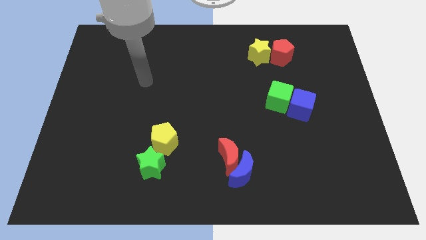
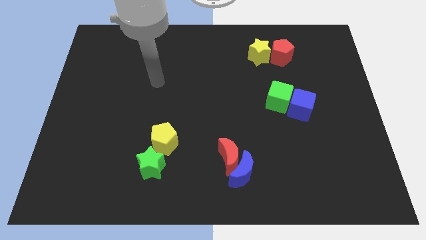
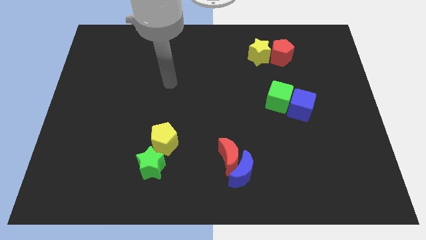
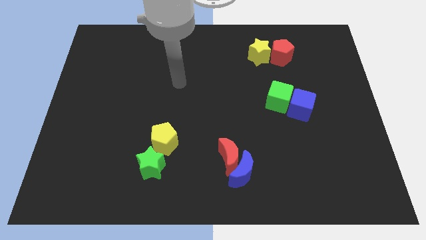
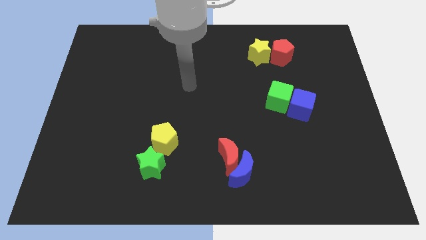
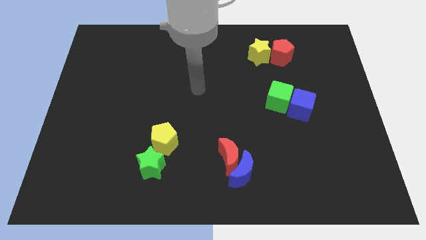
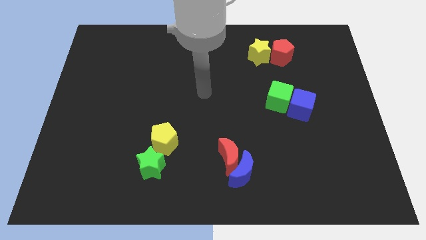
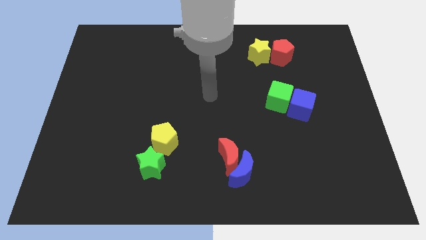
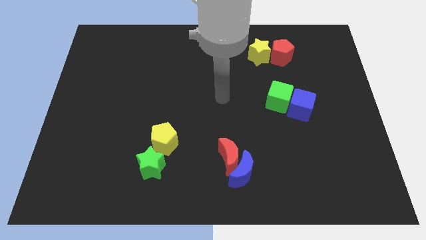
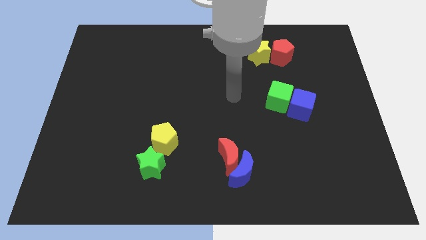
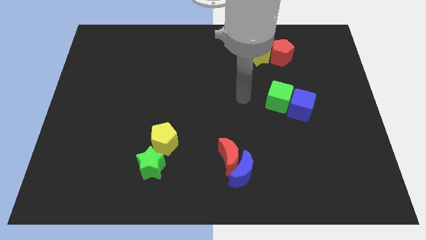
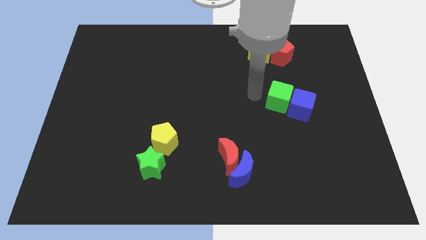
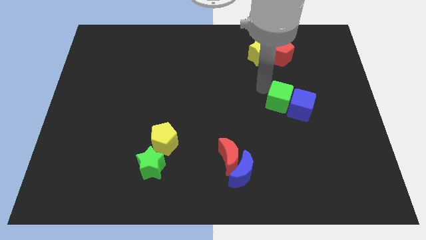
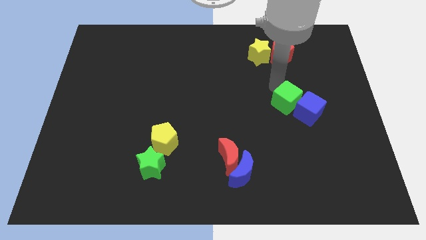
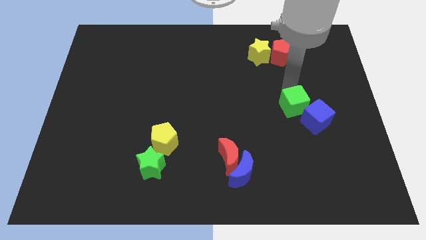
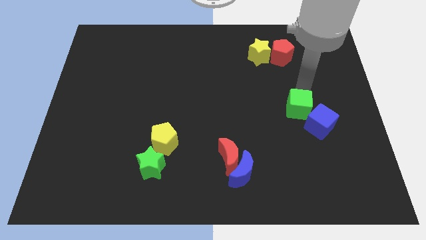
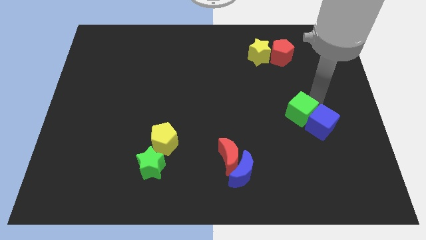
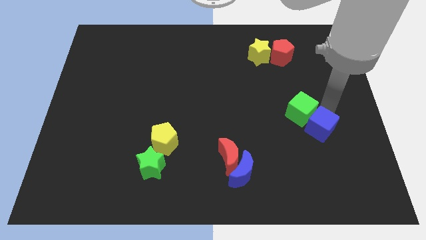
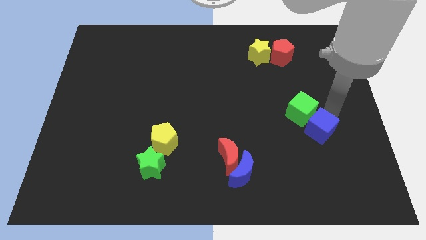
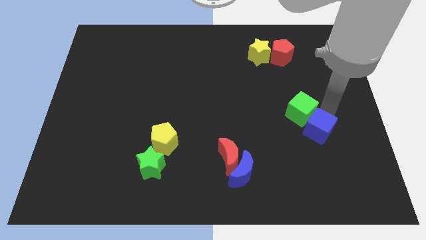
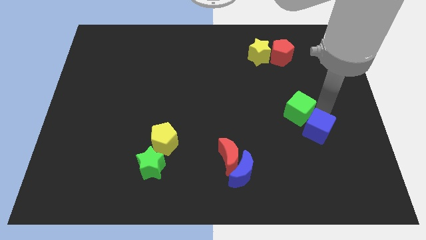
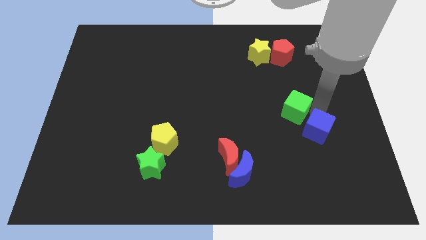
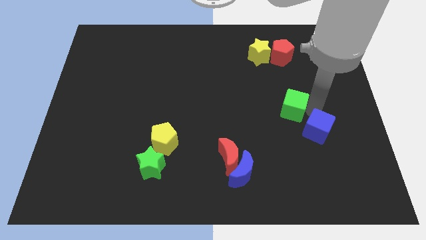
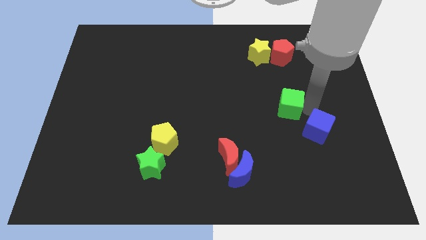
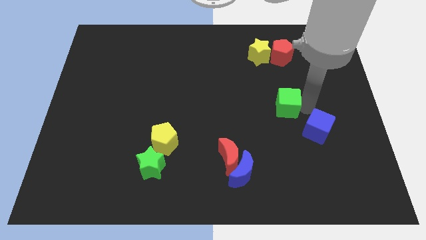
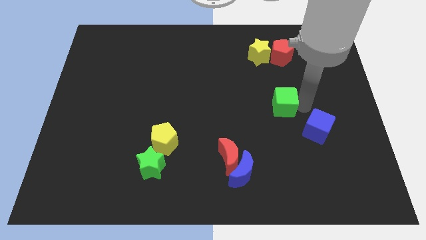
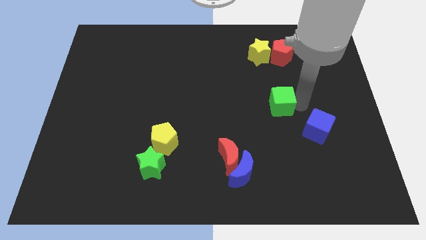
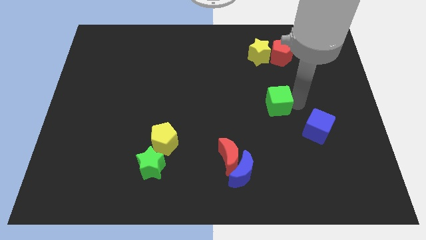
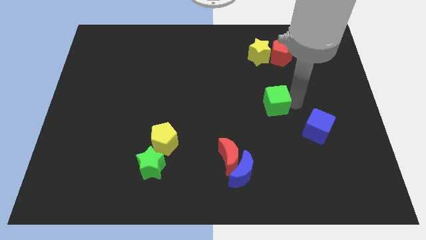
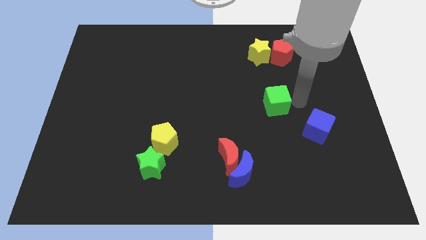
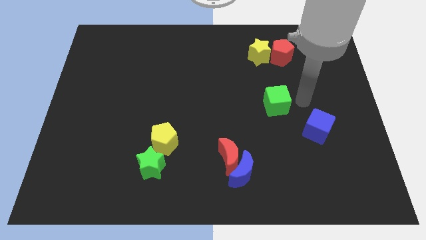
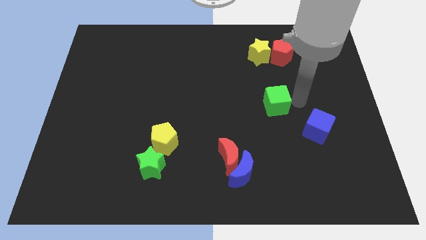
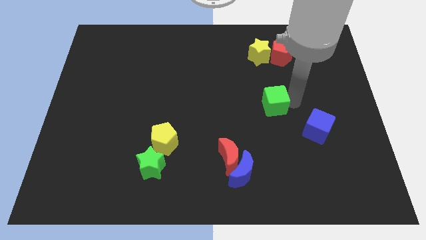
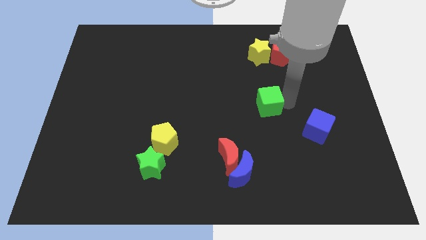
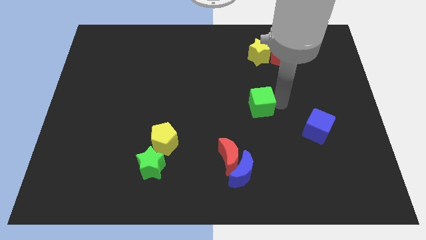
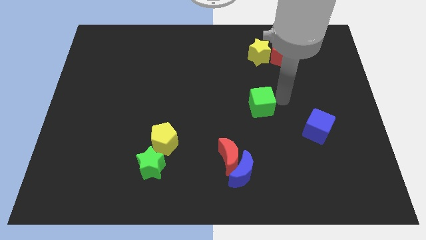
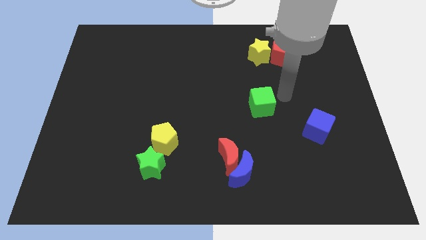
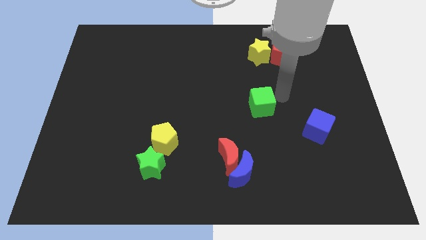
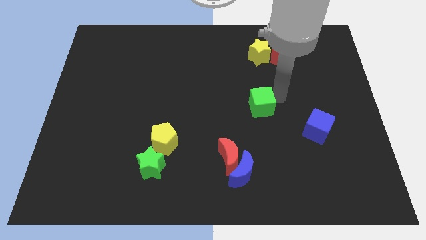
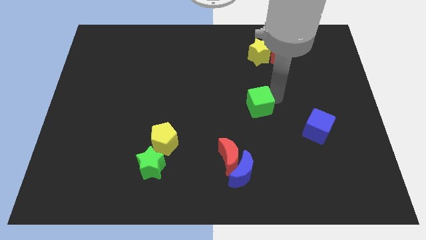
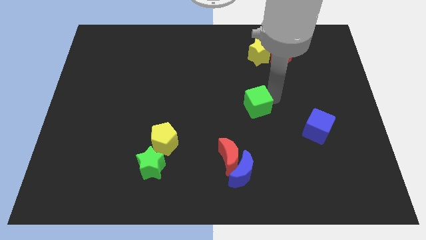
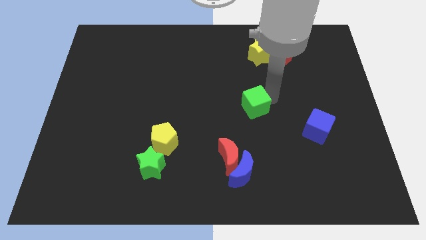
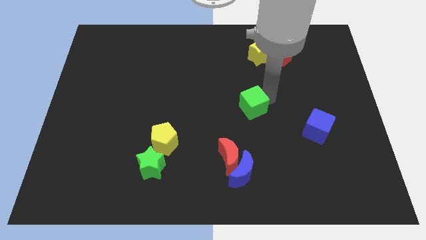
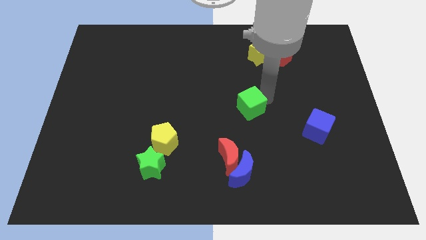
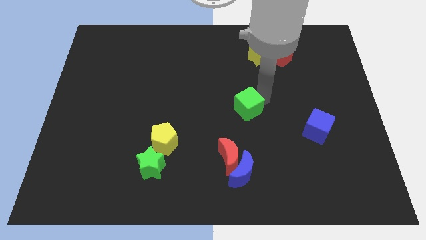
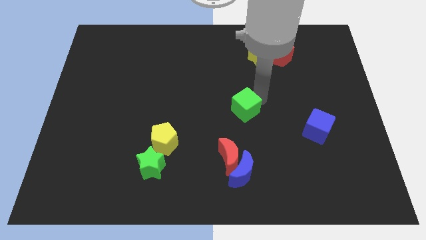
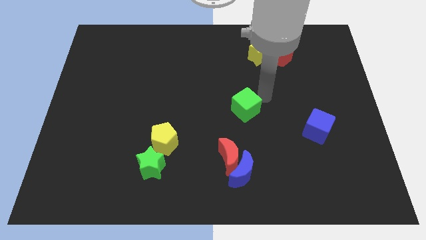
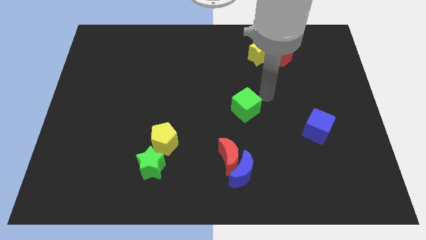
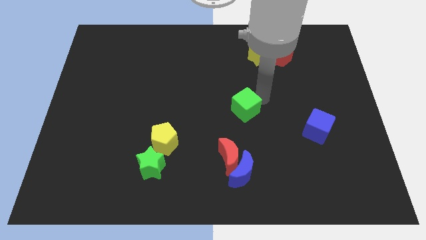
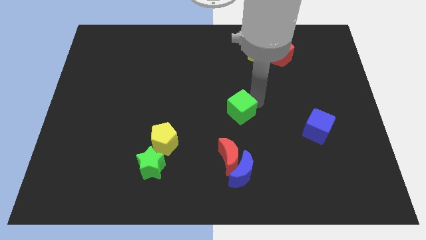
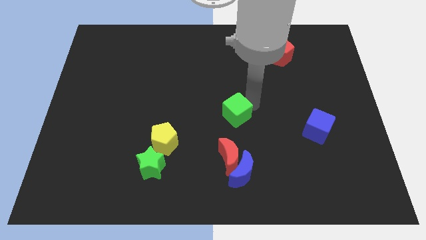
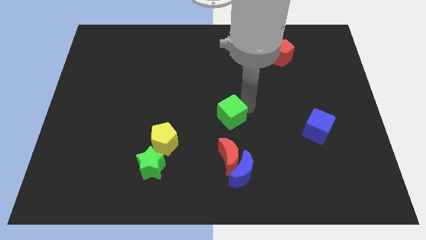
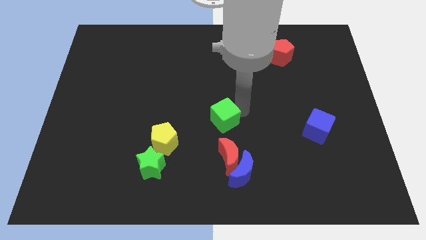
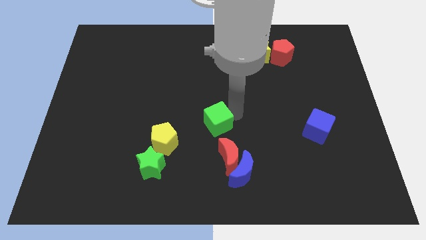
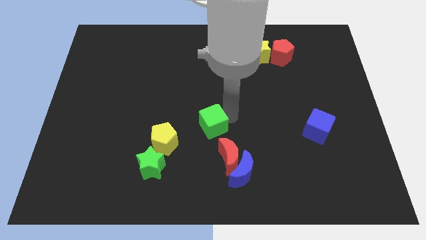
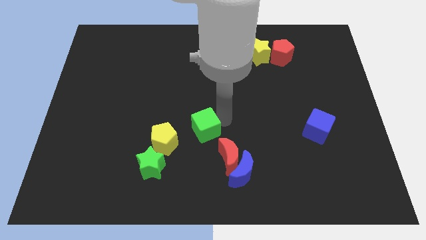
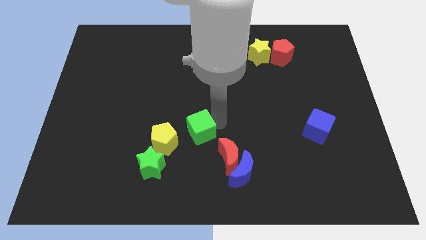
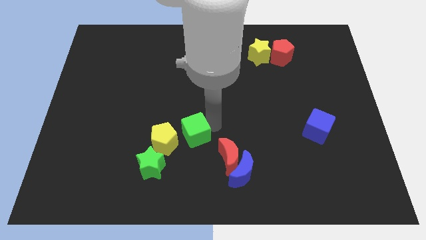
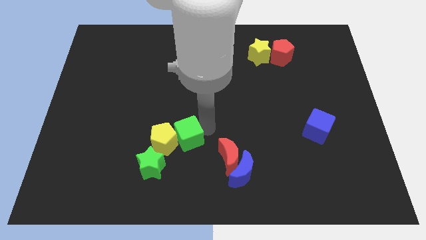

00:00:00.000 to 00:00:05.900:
push the green cube towards the yellow pentagon

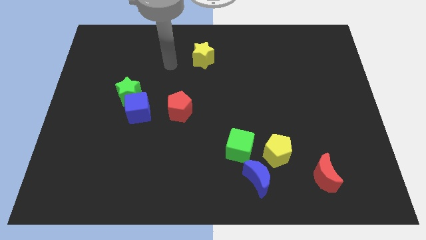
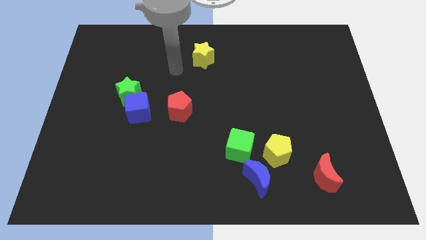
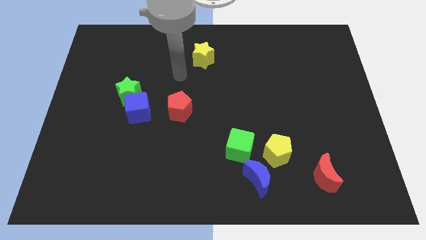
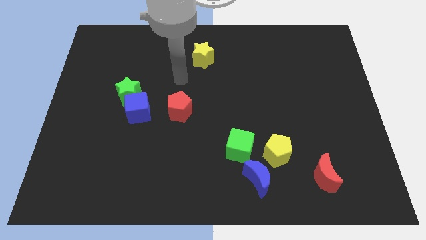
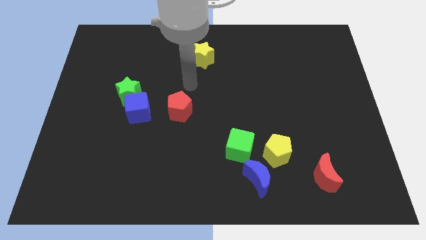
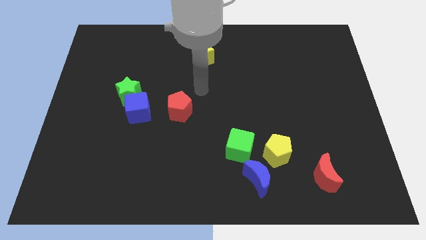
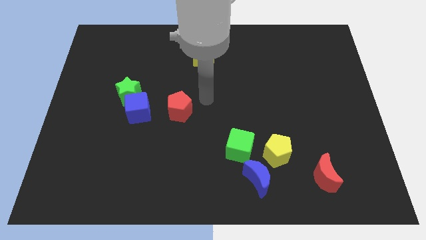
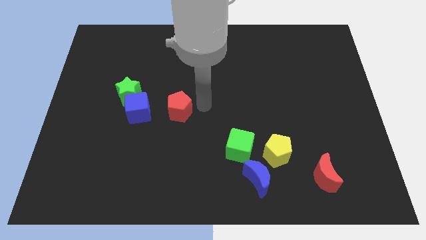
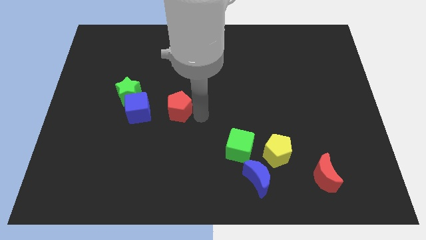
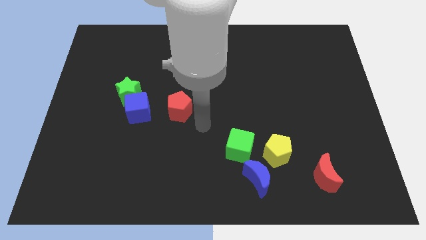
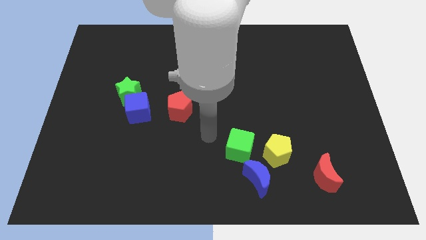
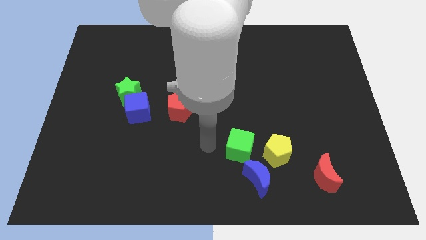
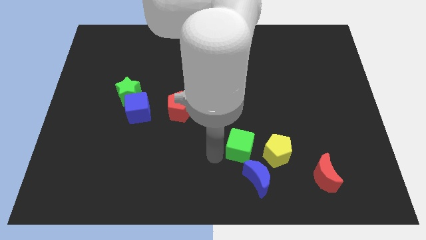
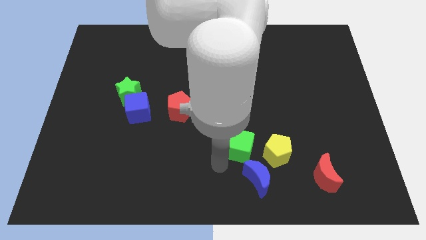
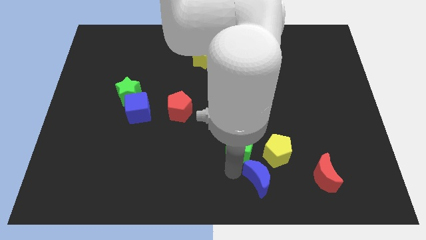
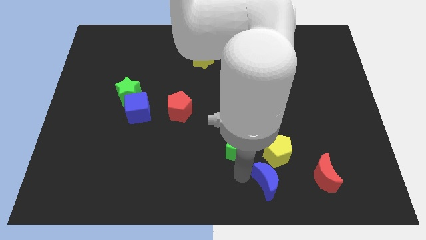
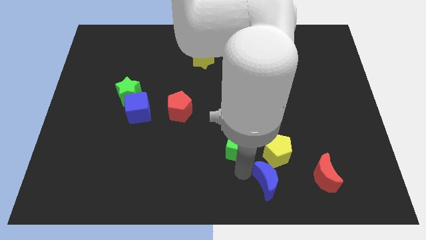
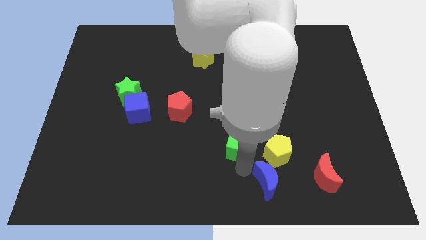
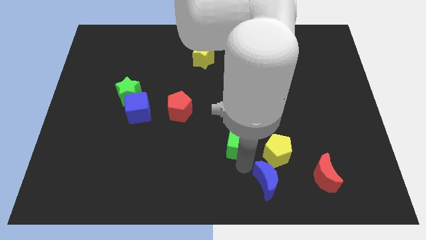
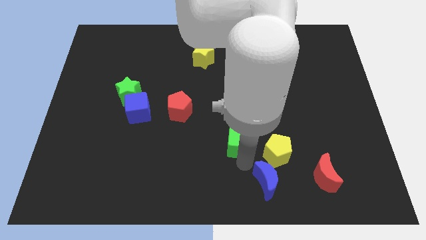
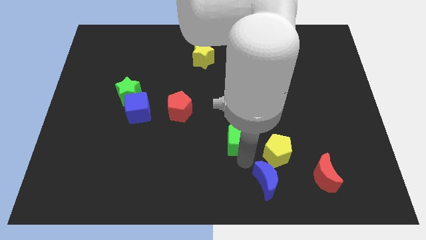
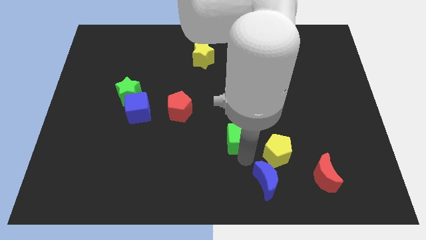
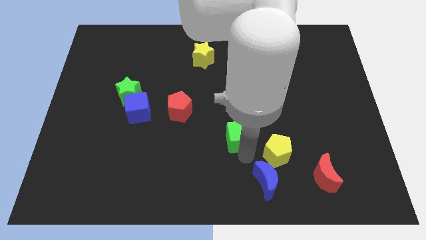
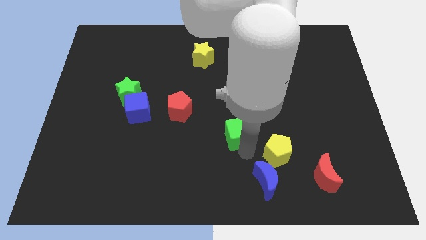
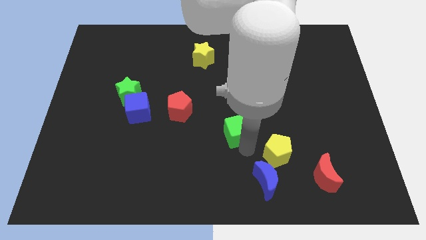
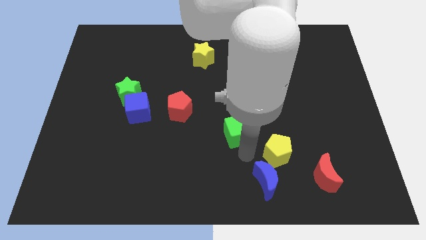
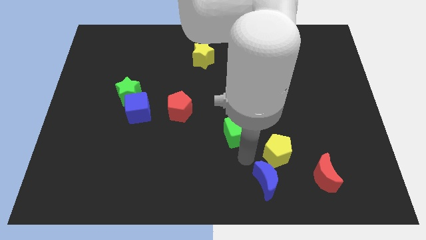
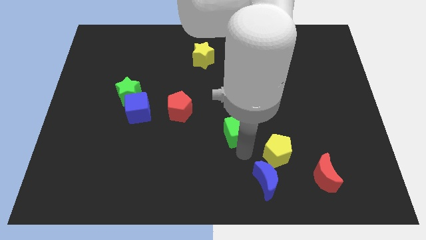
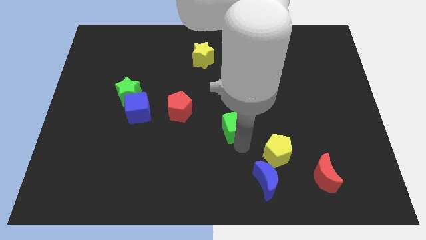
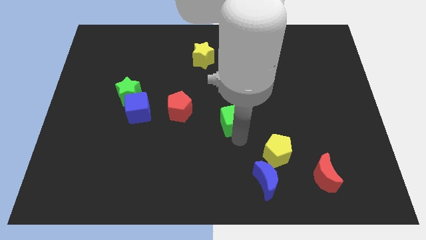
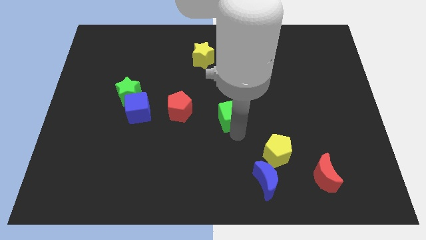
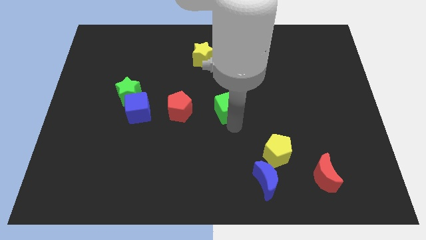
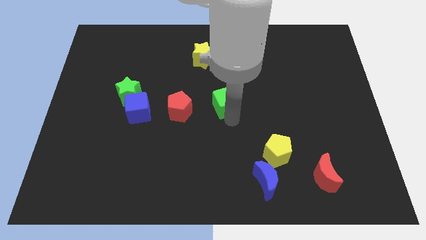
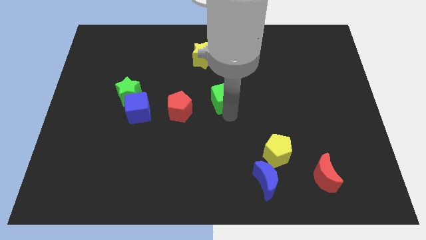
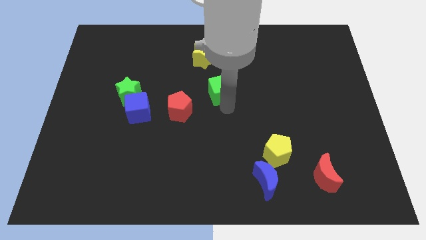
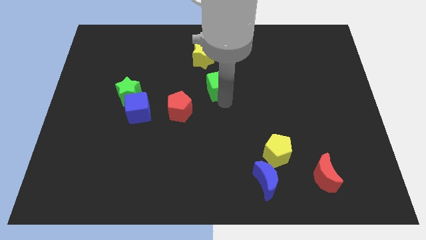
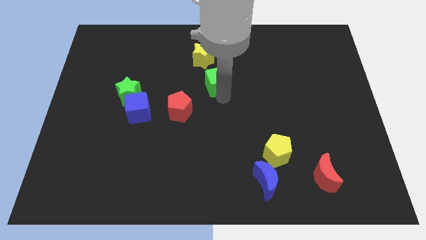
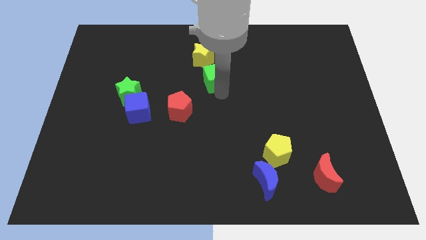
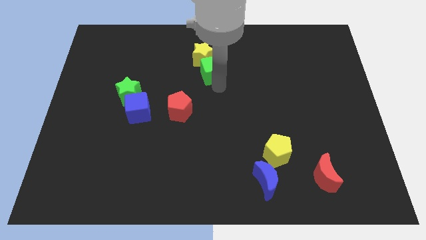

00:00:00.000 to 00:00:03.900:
push the green cube to the yellow star
